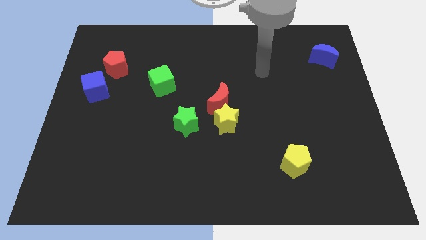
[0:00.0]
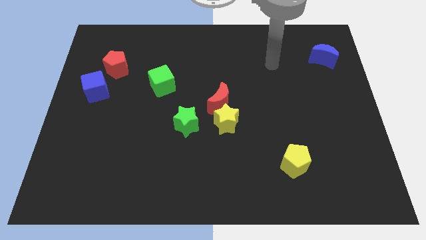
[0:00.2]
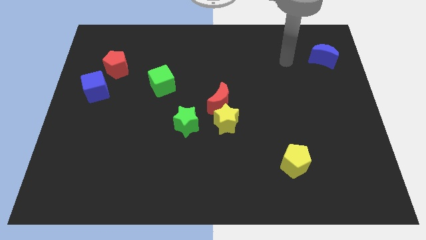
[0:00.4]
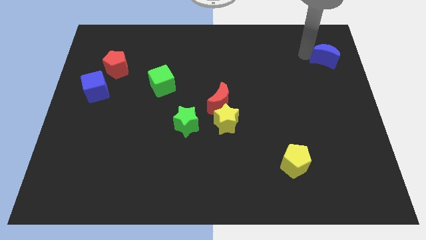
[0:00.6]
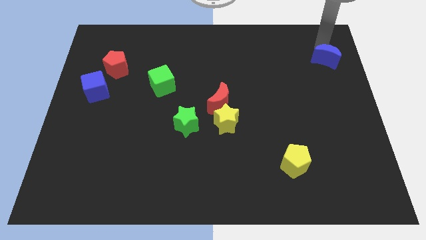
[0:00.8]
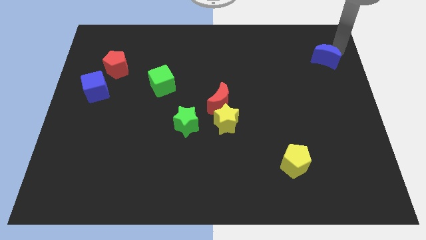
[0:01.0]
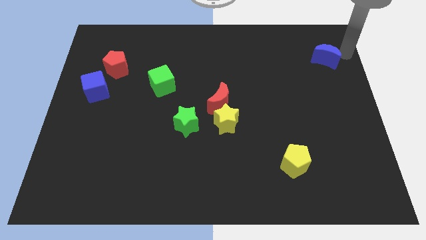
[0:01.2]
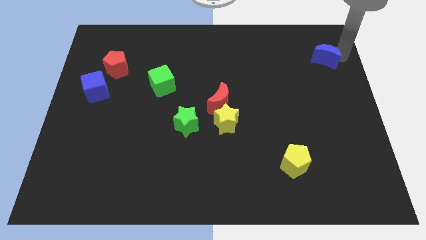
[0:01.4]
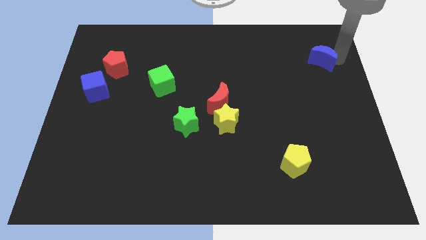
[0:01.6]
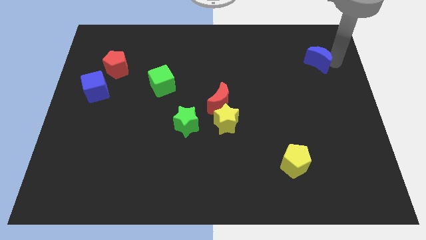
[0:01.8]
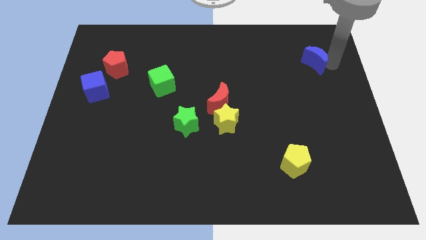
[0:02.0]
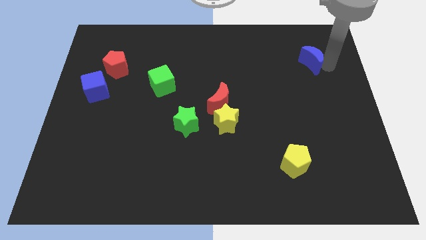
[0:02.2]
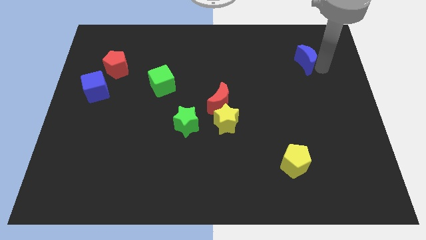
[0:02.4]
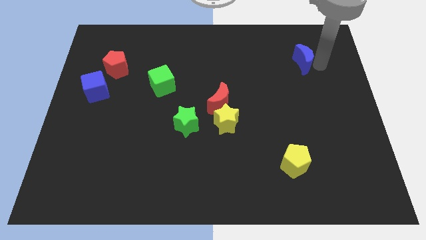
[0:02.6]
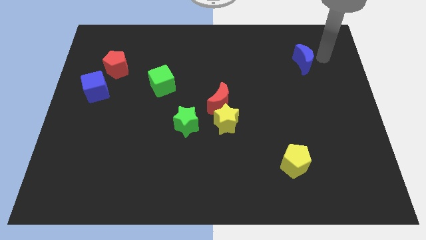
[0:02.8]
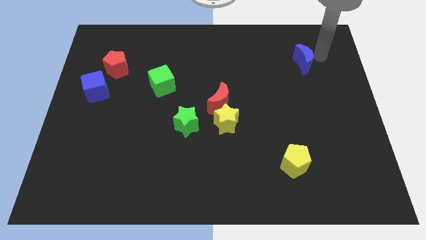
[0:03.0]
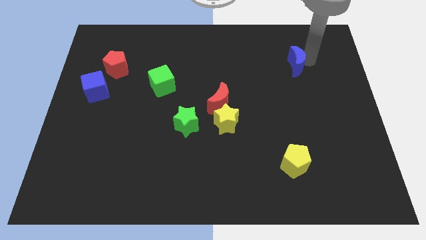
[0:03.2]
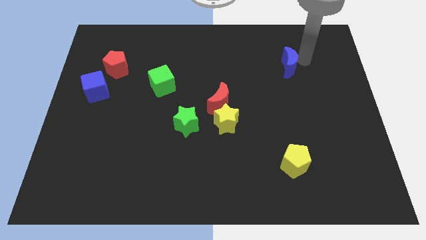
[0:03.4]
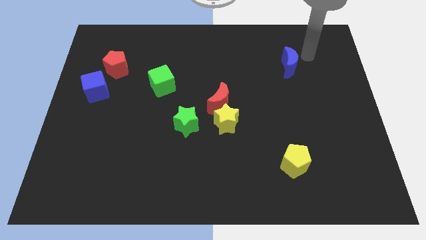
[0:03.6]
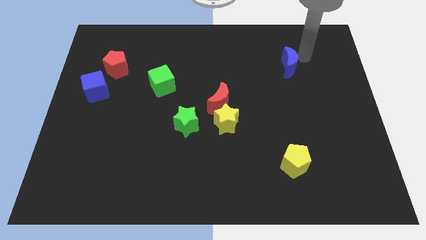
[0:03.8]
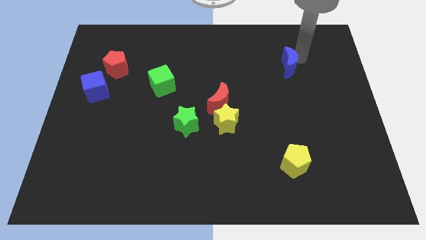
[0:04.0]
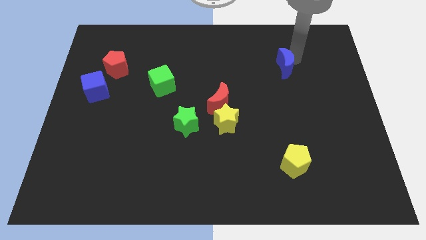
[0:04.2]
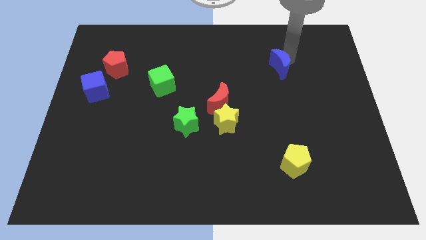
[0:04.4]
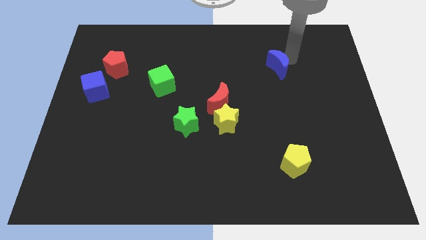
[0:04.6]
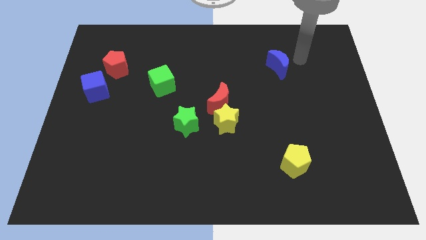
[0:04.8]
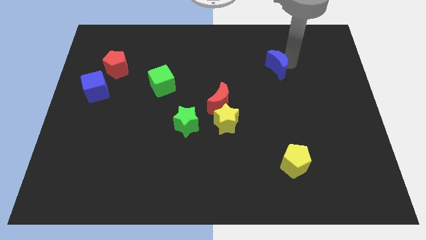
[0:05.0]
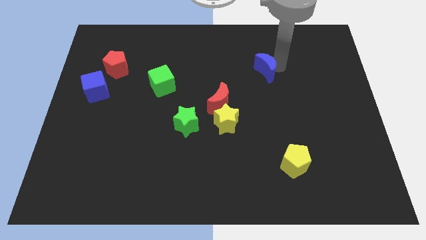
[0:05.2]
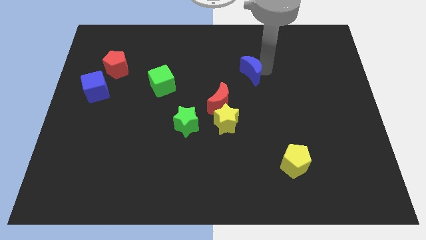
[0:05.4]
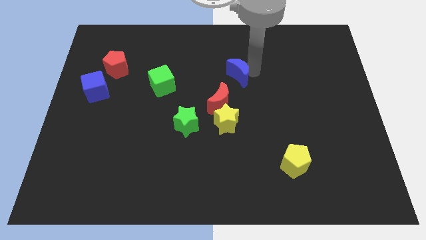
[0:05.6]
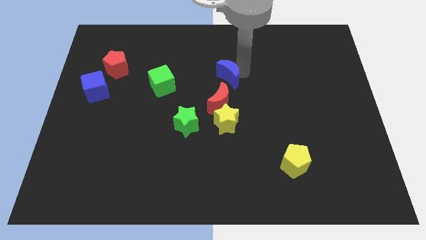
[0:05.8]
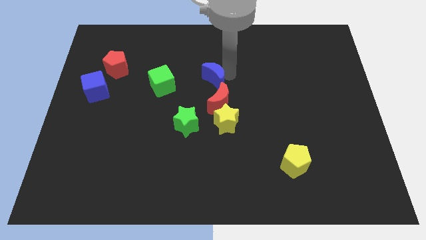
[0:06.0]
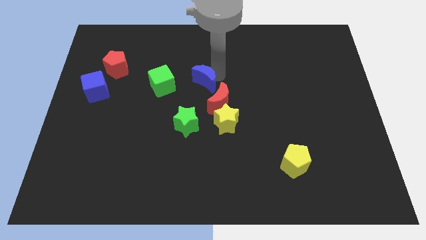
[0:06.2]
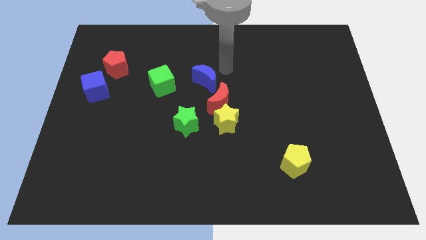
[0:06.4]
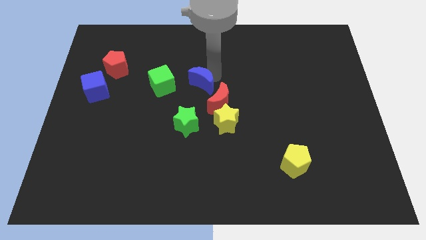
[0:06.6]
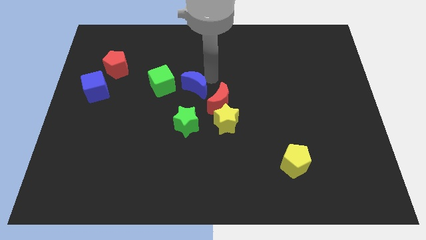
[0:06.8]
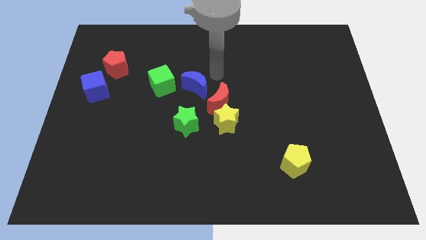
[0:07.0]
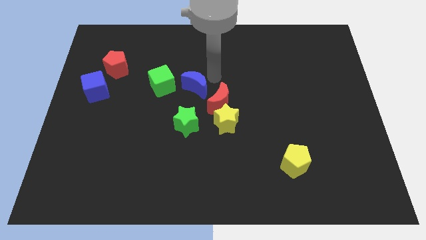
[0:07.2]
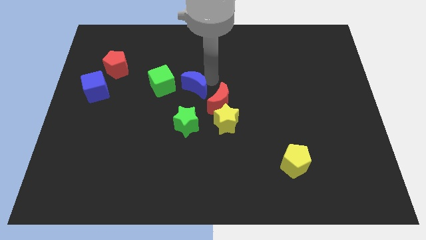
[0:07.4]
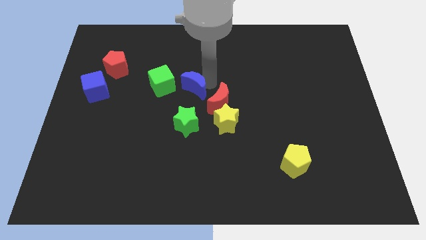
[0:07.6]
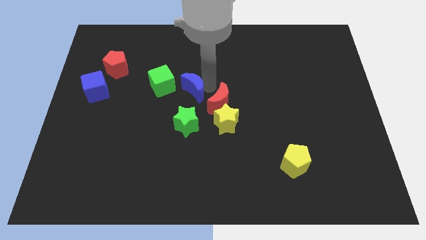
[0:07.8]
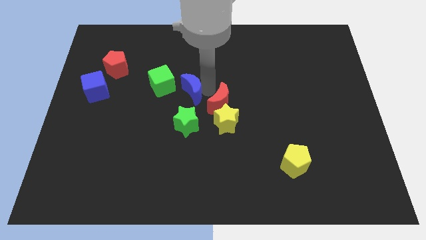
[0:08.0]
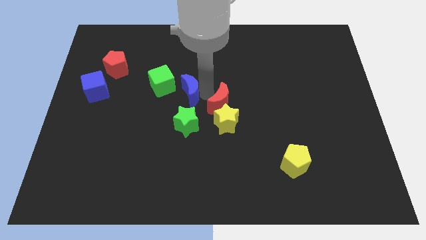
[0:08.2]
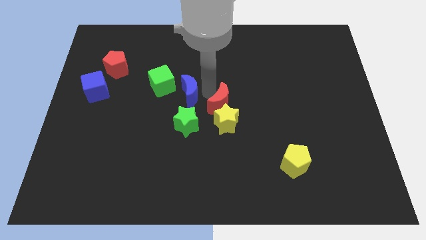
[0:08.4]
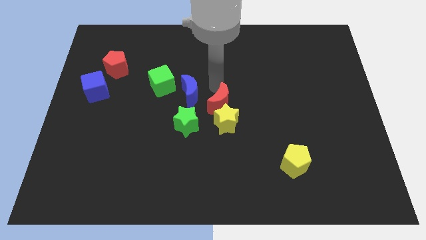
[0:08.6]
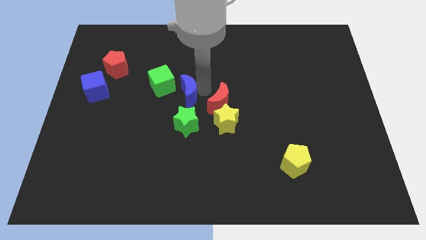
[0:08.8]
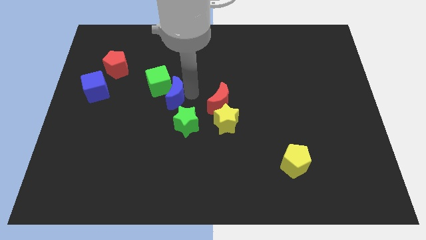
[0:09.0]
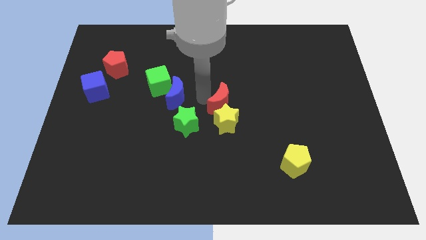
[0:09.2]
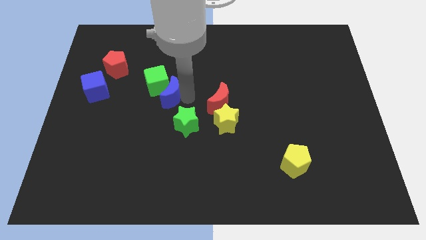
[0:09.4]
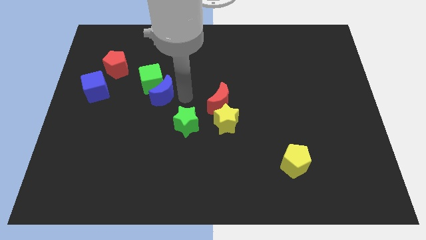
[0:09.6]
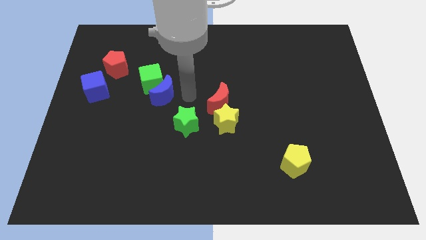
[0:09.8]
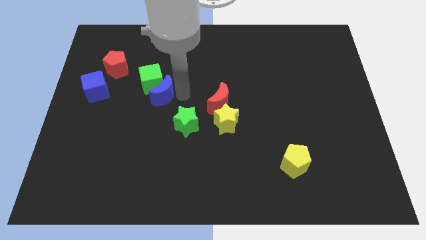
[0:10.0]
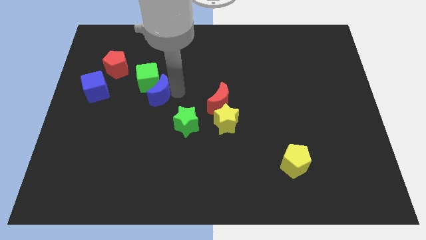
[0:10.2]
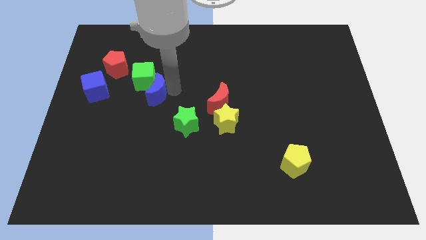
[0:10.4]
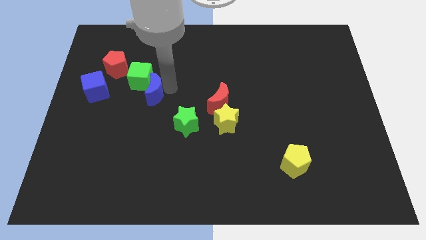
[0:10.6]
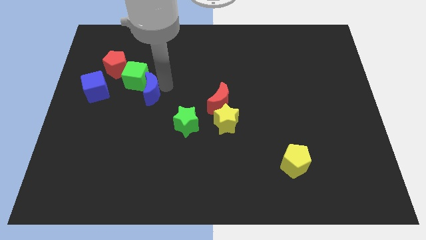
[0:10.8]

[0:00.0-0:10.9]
push the blue moon diagonally down and to the right of the red pentagon

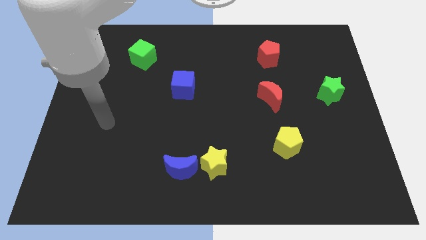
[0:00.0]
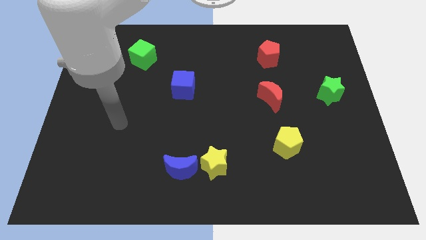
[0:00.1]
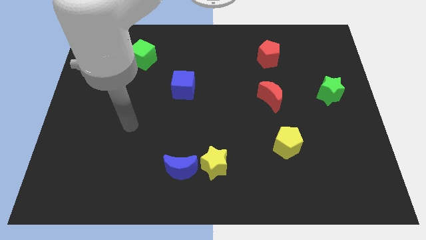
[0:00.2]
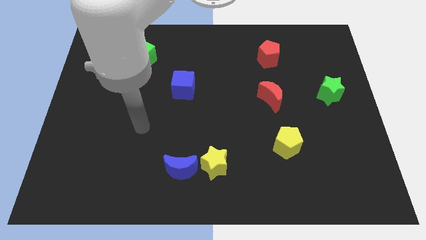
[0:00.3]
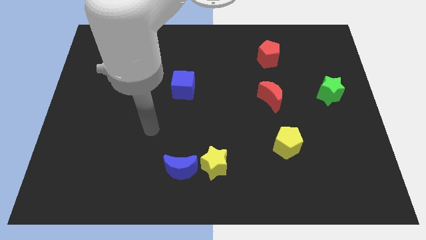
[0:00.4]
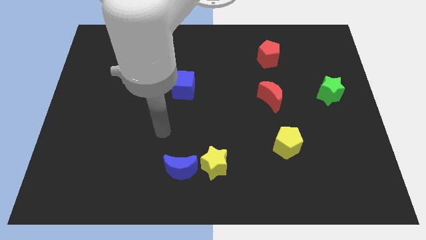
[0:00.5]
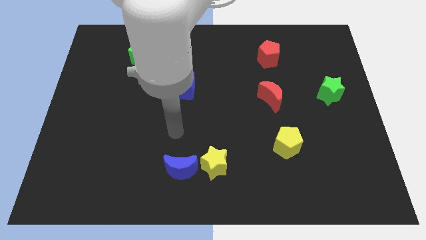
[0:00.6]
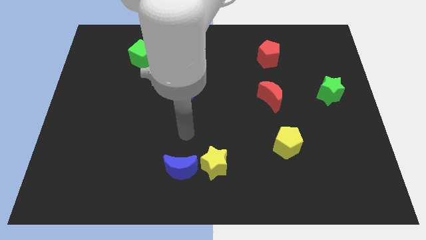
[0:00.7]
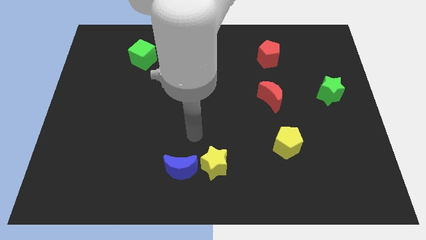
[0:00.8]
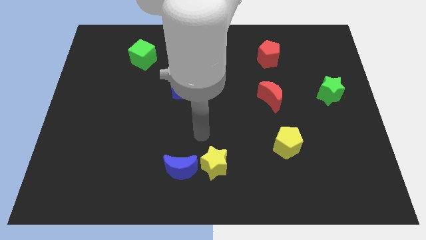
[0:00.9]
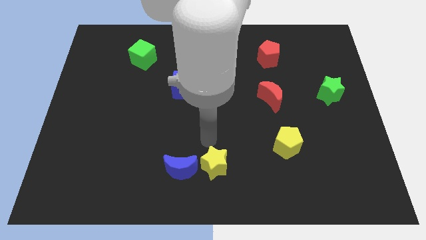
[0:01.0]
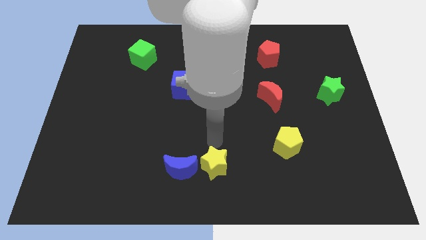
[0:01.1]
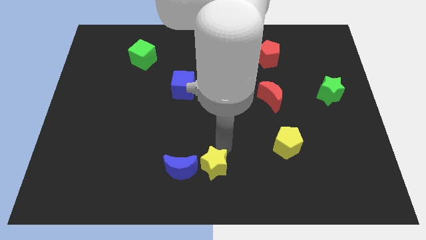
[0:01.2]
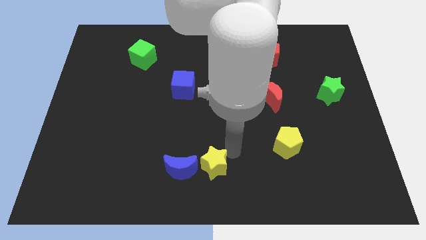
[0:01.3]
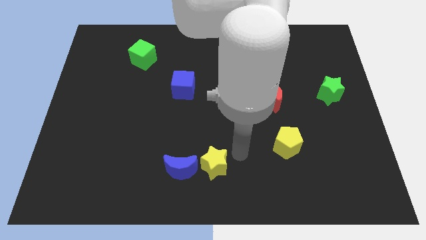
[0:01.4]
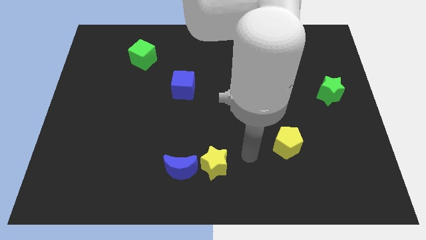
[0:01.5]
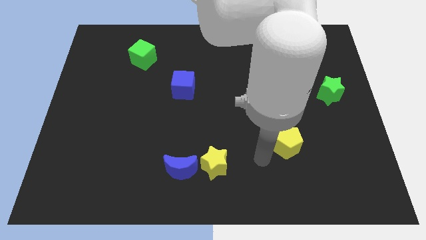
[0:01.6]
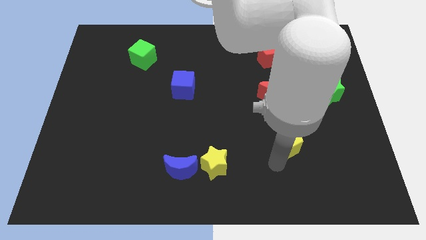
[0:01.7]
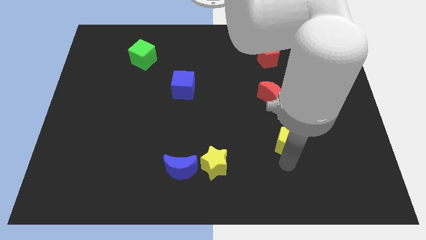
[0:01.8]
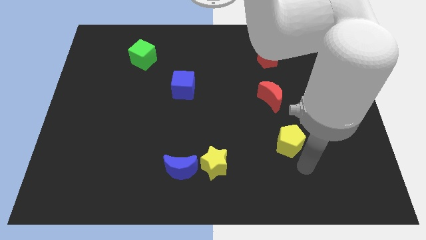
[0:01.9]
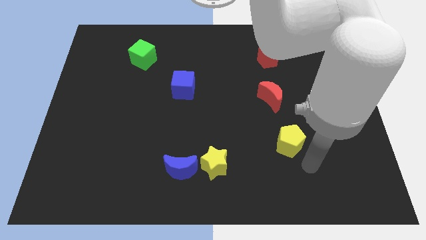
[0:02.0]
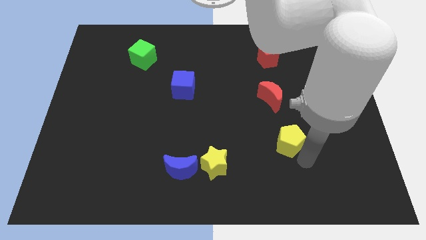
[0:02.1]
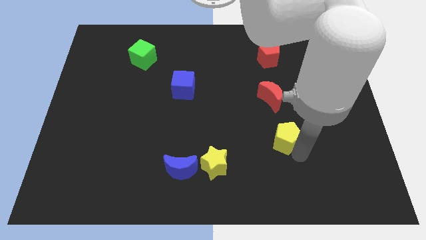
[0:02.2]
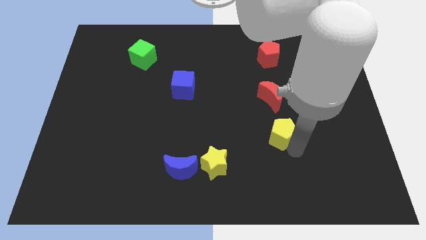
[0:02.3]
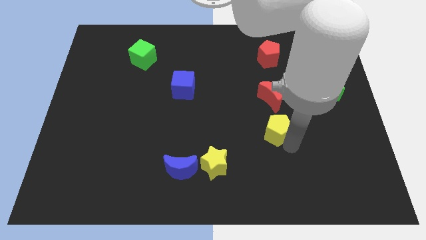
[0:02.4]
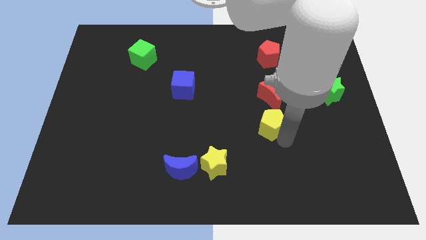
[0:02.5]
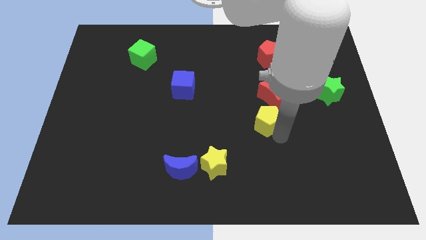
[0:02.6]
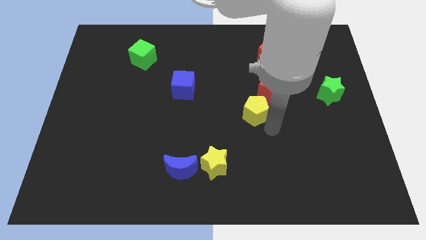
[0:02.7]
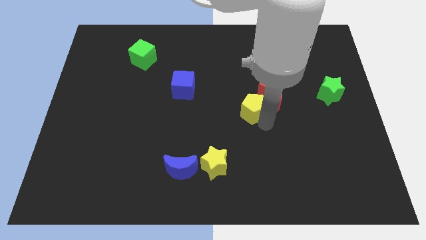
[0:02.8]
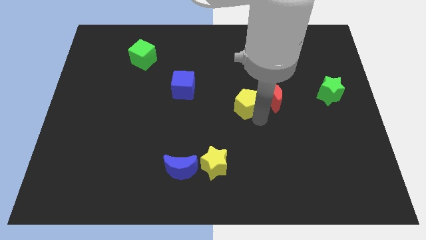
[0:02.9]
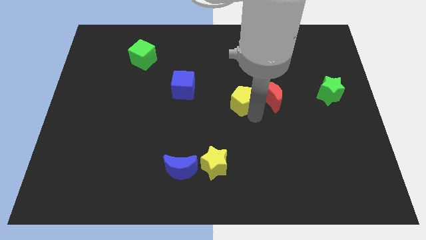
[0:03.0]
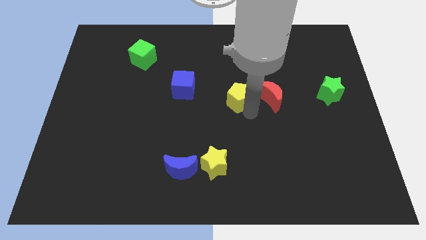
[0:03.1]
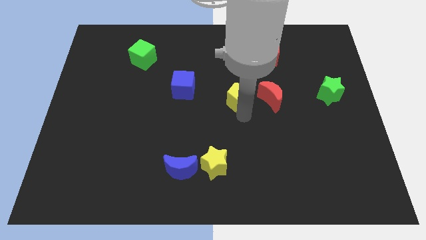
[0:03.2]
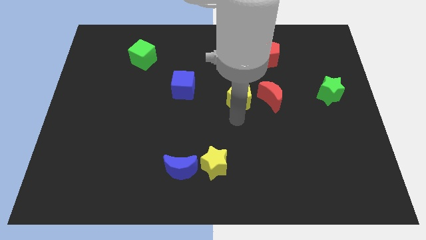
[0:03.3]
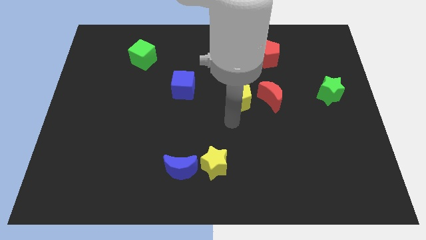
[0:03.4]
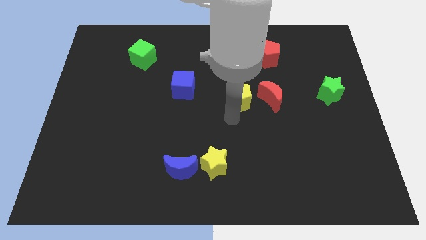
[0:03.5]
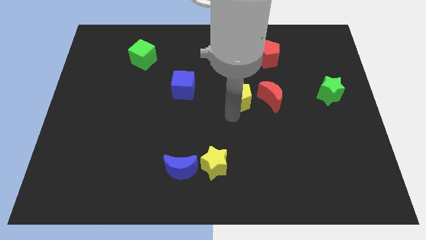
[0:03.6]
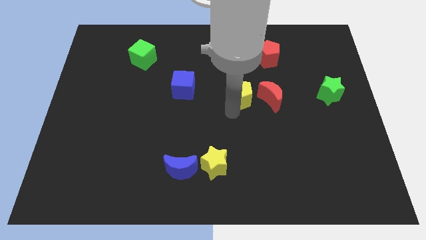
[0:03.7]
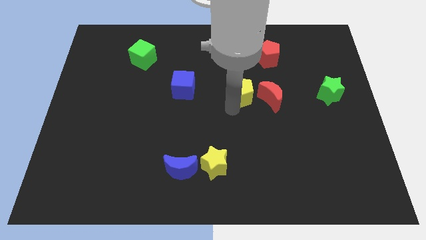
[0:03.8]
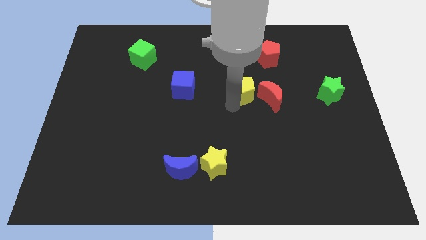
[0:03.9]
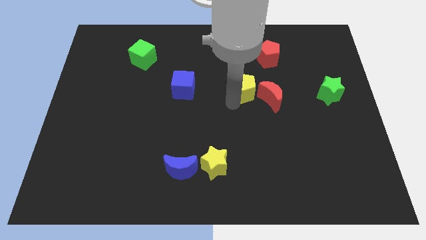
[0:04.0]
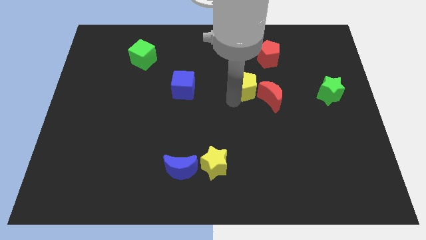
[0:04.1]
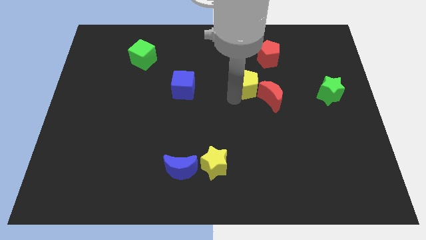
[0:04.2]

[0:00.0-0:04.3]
slide the yellow pentagon to the bottom left side of the red pentagon
